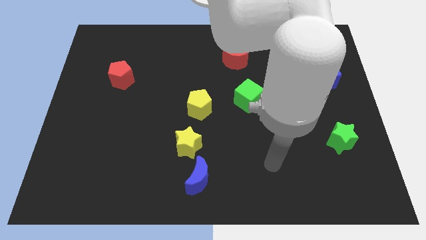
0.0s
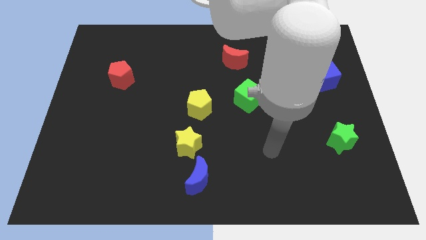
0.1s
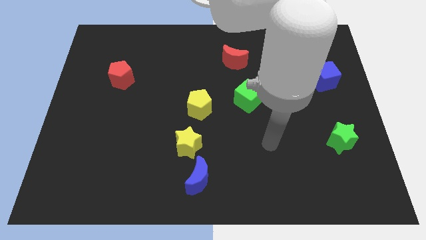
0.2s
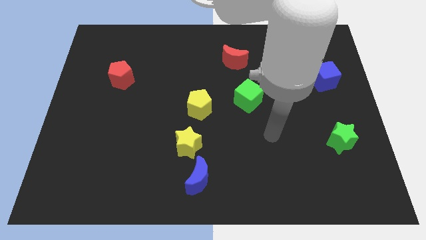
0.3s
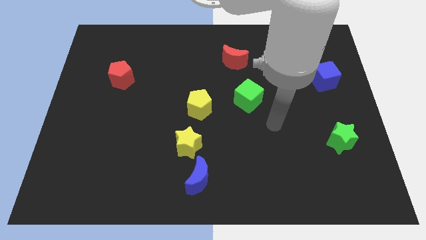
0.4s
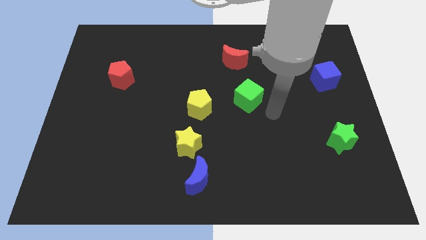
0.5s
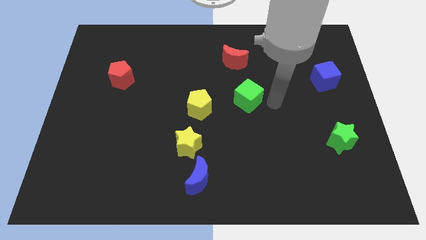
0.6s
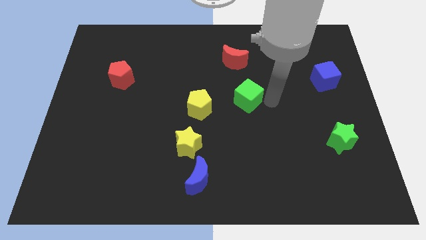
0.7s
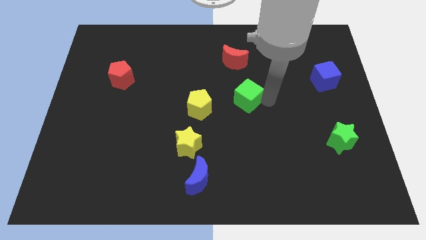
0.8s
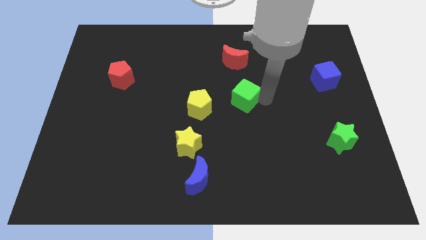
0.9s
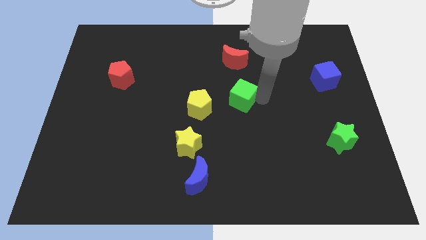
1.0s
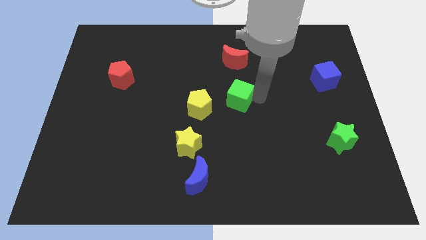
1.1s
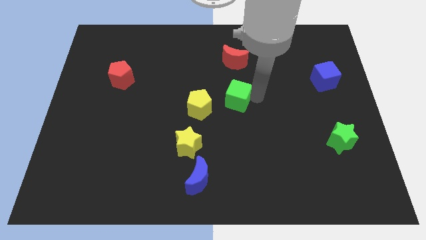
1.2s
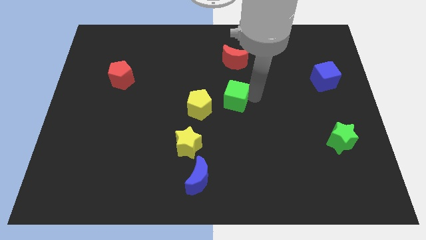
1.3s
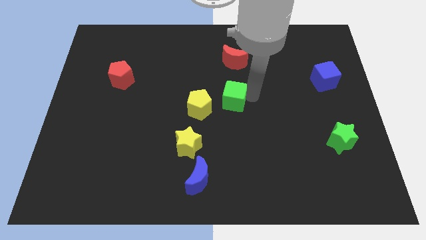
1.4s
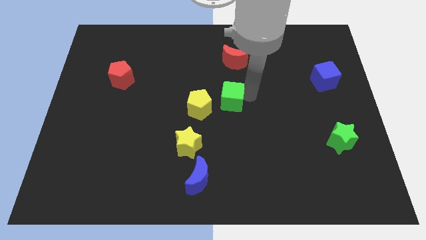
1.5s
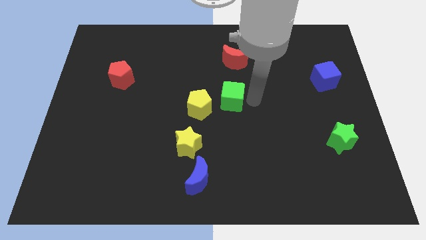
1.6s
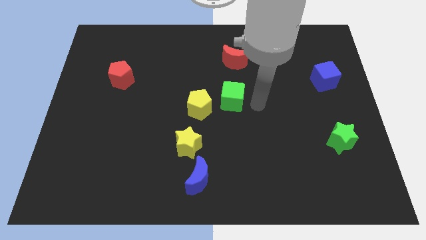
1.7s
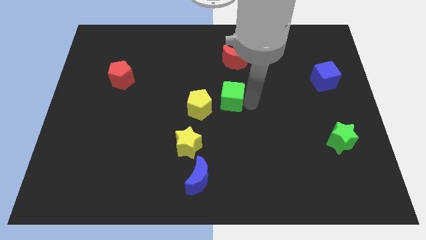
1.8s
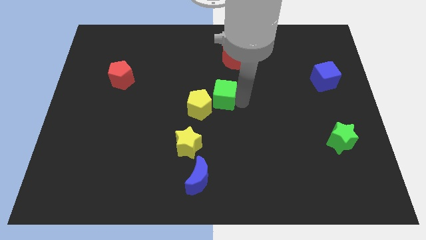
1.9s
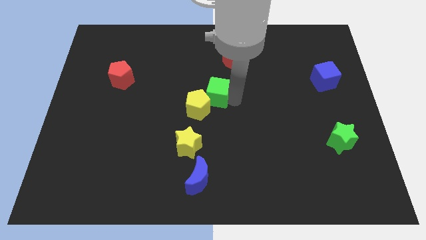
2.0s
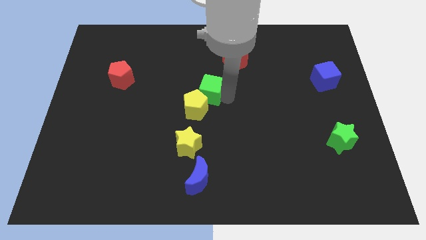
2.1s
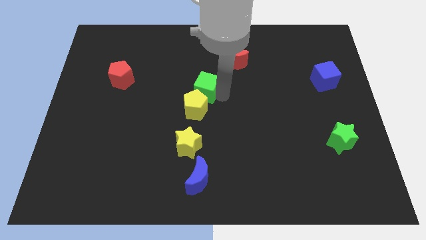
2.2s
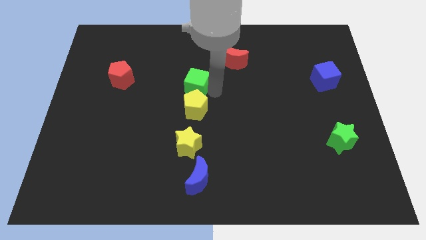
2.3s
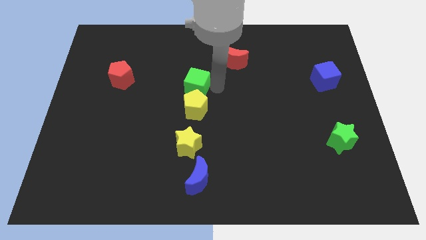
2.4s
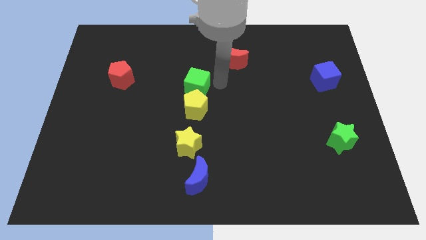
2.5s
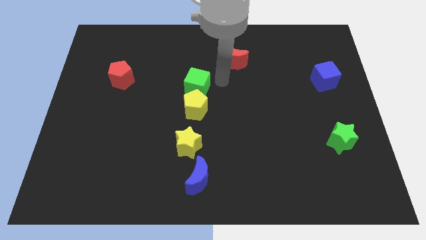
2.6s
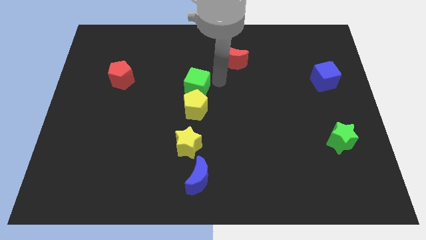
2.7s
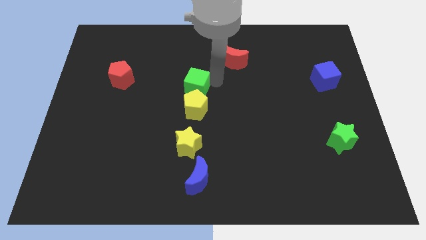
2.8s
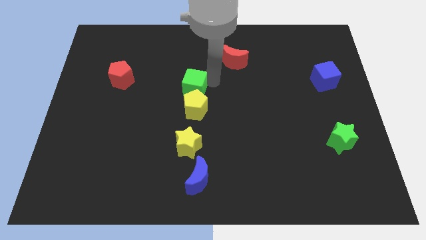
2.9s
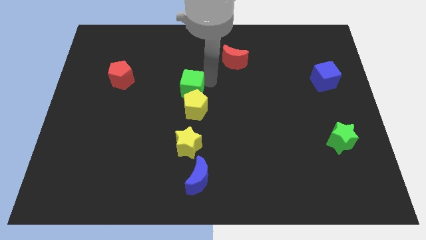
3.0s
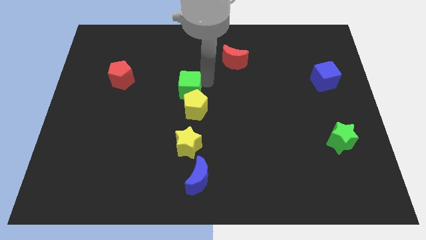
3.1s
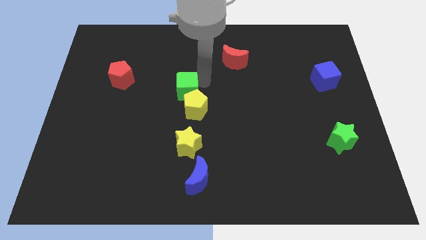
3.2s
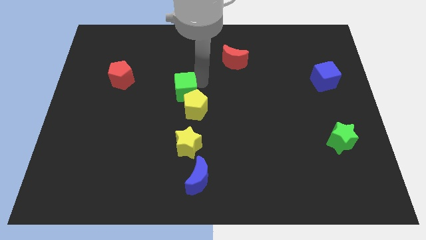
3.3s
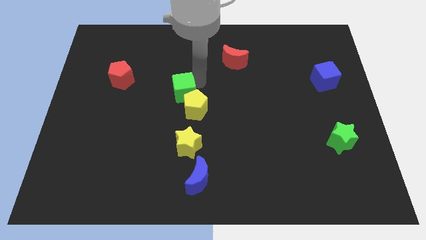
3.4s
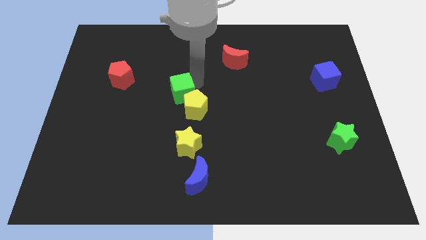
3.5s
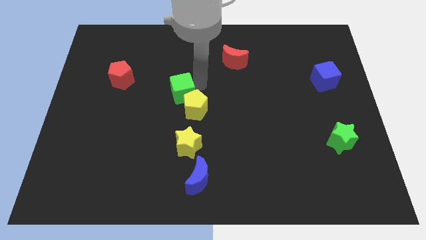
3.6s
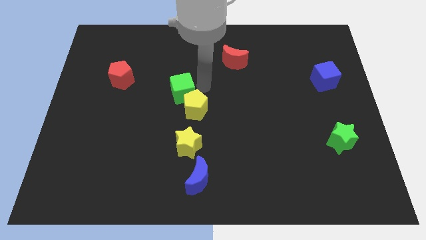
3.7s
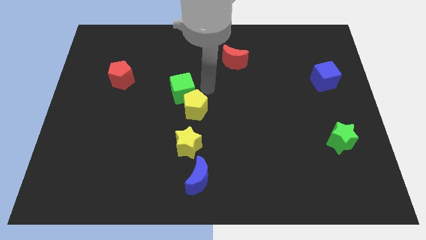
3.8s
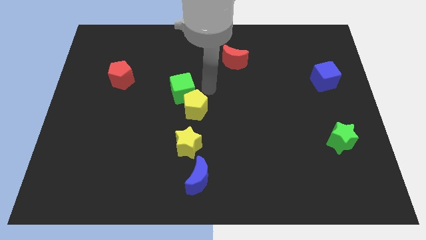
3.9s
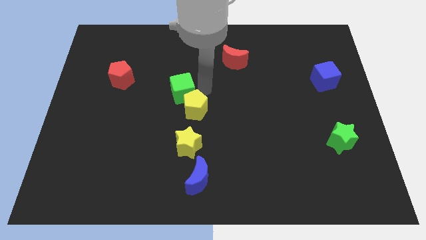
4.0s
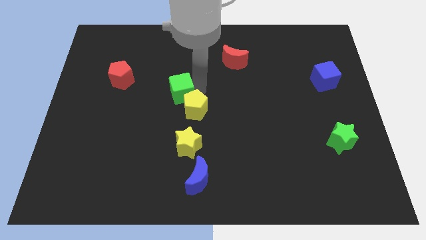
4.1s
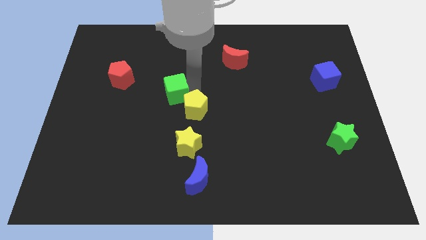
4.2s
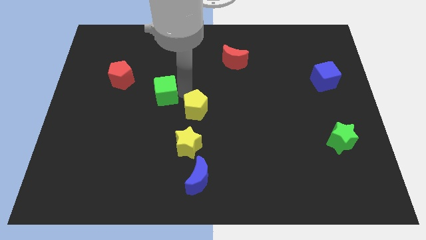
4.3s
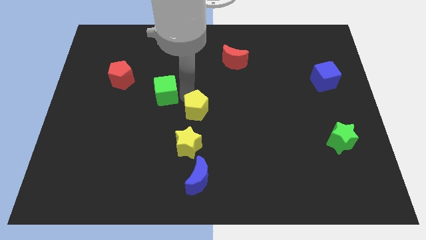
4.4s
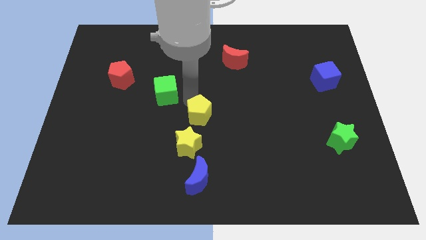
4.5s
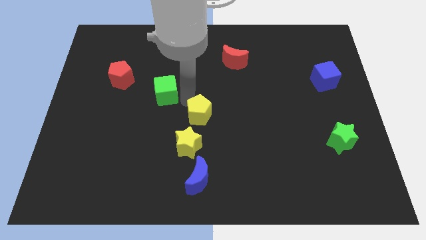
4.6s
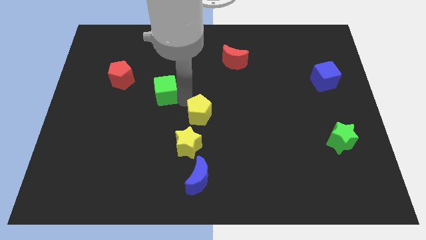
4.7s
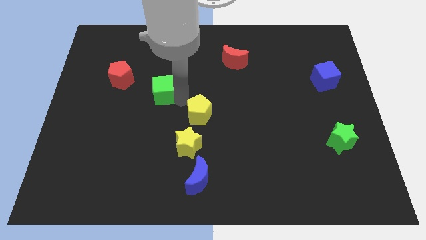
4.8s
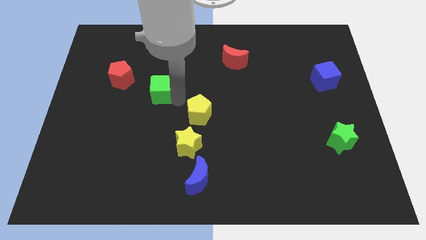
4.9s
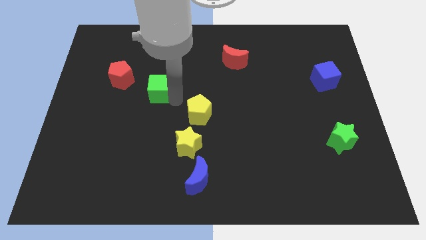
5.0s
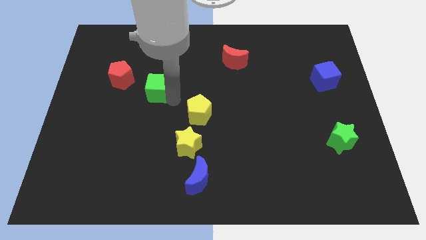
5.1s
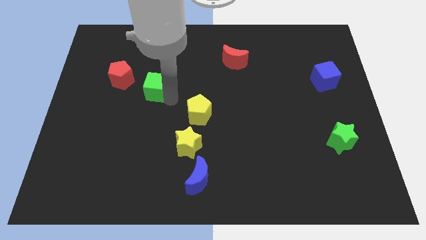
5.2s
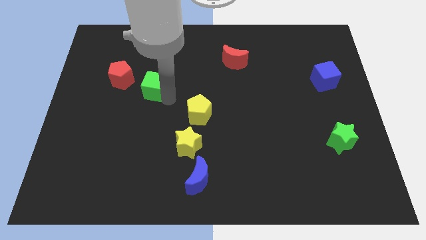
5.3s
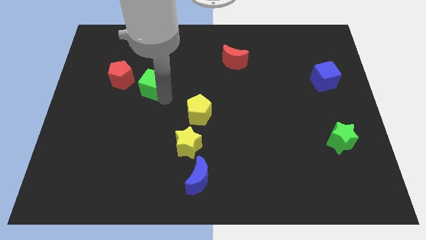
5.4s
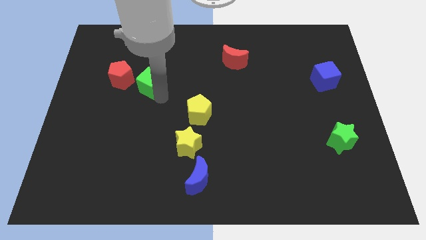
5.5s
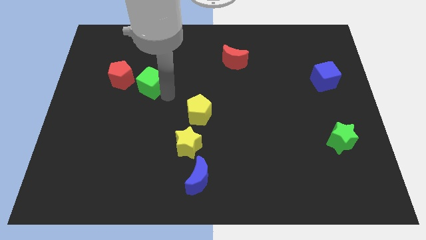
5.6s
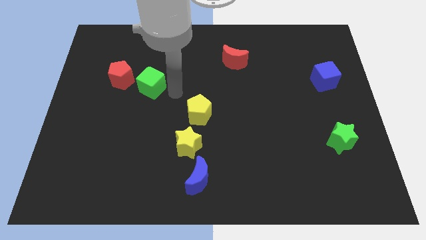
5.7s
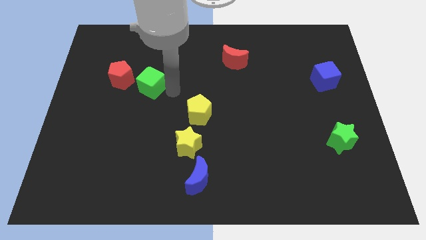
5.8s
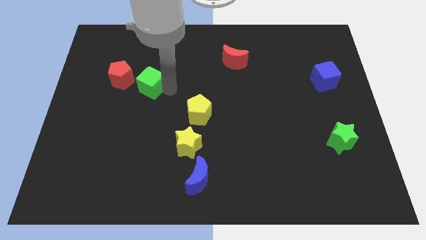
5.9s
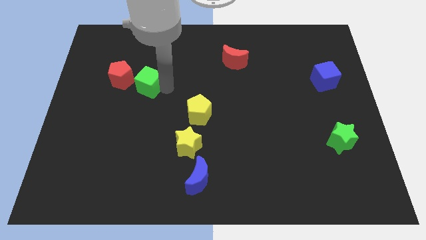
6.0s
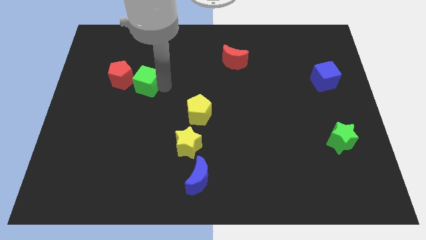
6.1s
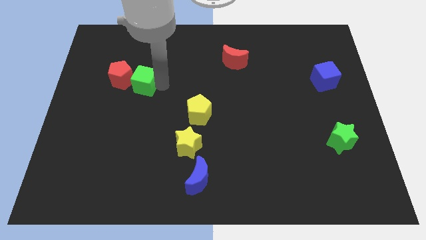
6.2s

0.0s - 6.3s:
move the green cube next to the red pentagon

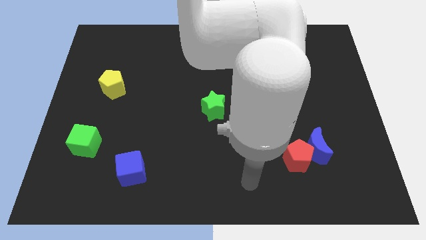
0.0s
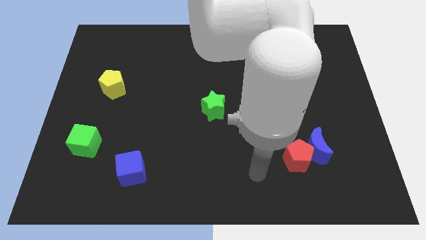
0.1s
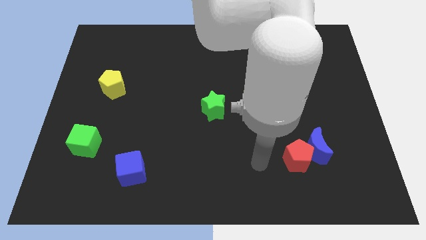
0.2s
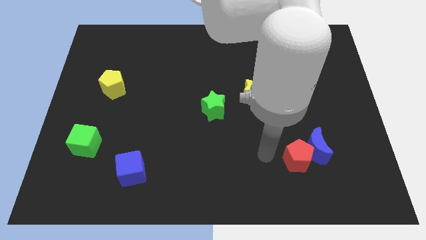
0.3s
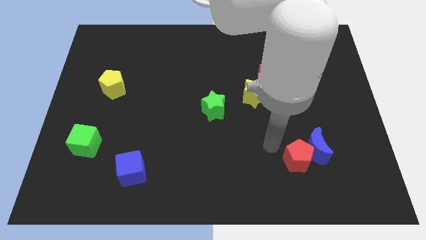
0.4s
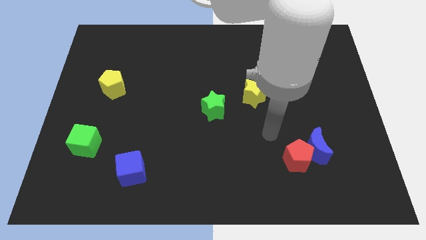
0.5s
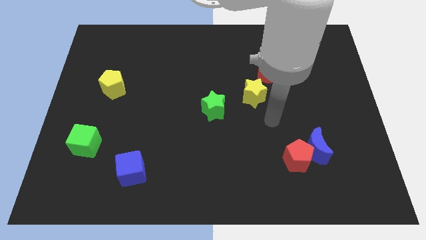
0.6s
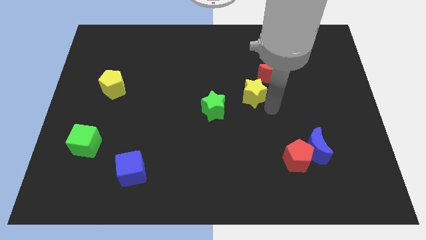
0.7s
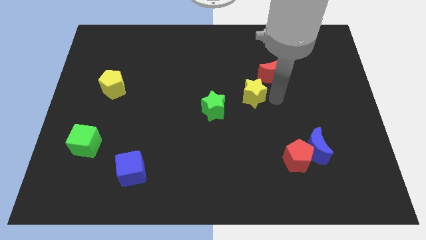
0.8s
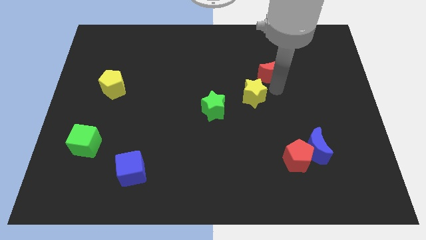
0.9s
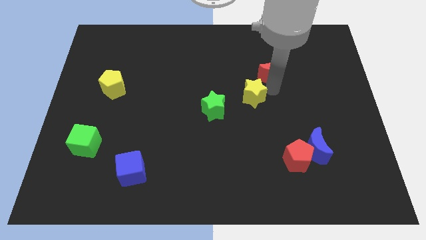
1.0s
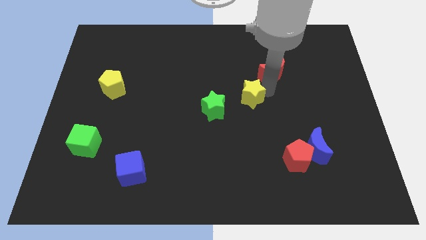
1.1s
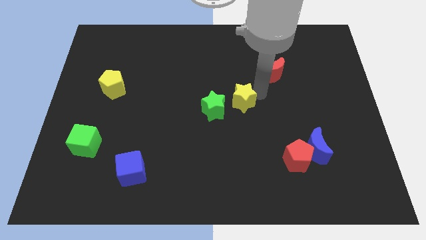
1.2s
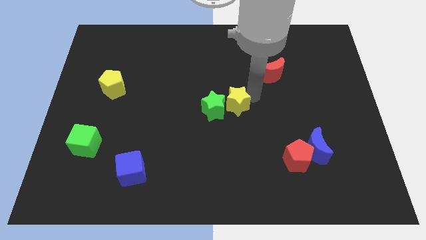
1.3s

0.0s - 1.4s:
move the yellow star towards the green star
